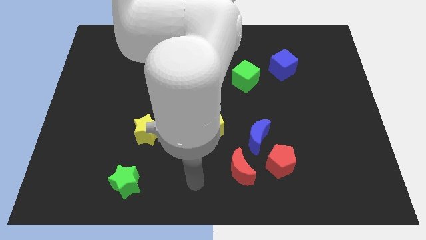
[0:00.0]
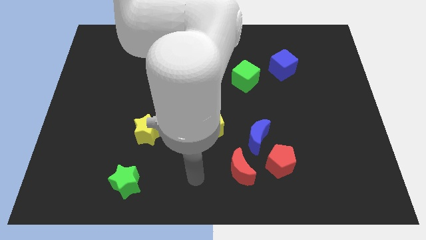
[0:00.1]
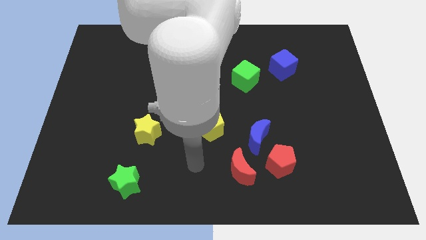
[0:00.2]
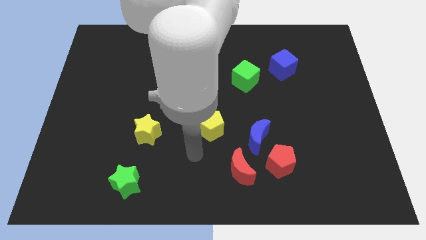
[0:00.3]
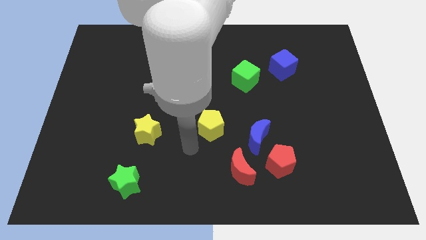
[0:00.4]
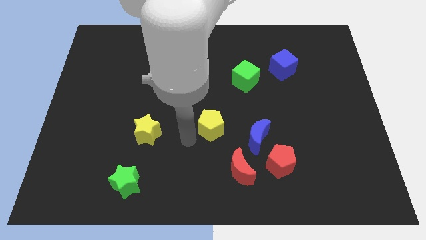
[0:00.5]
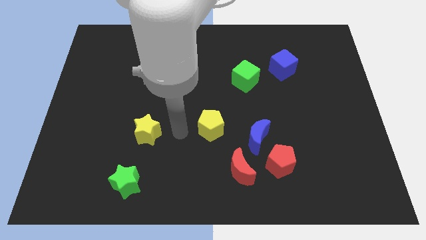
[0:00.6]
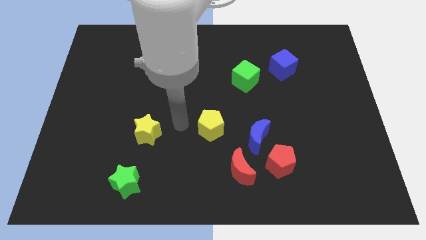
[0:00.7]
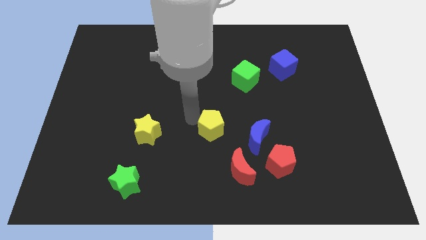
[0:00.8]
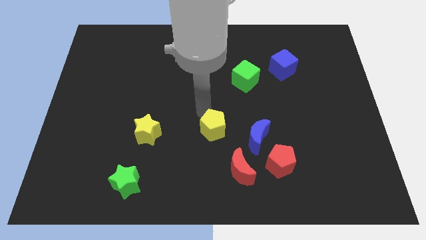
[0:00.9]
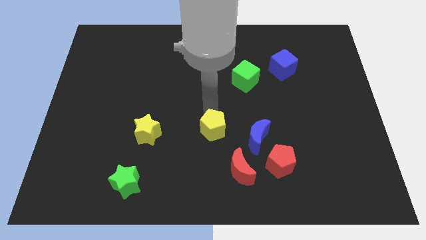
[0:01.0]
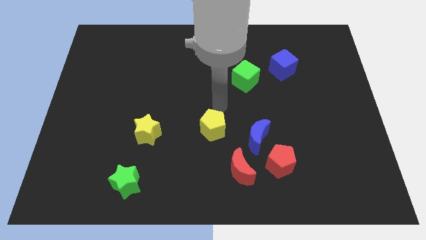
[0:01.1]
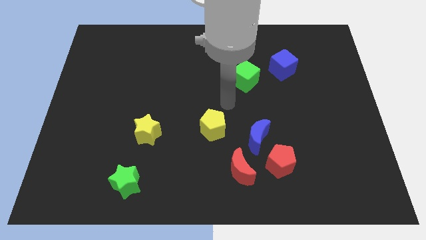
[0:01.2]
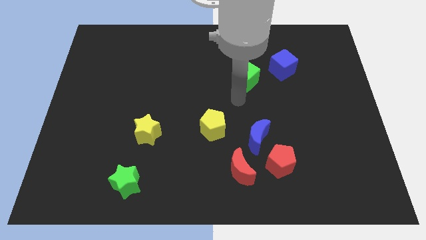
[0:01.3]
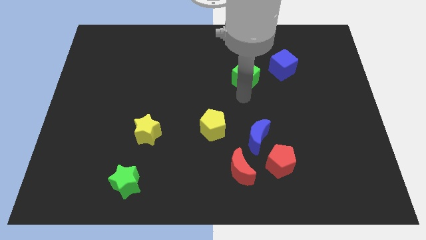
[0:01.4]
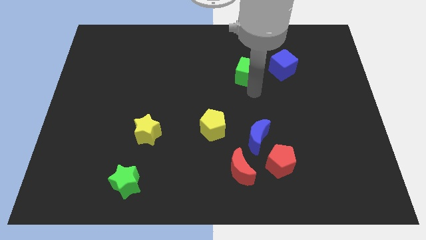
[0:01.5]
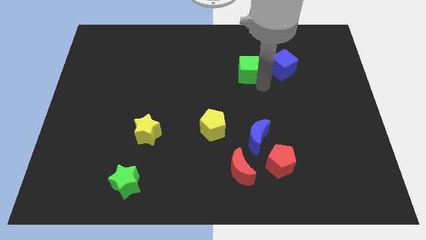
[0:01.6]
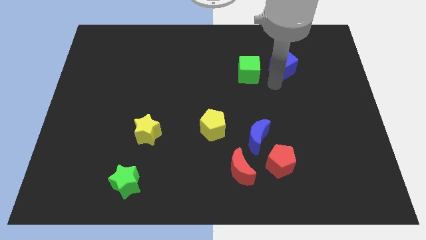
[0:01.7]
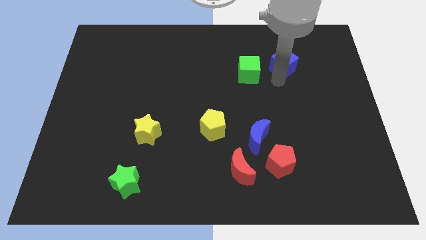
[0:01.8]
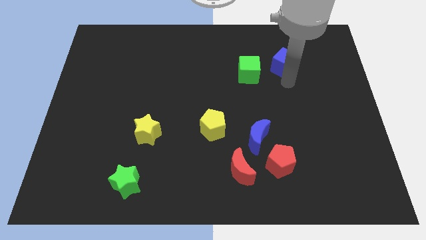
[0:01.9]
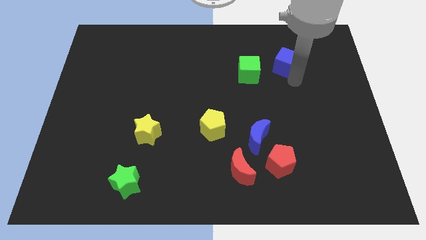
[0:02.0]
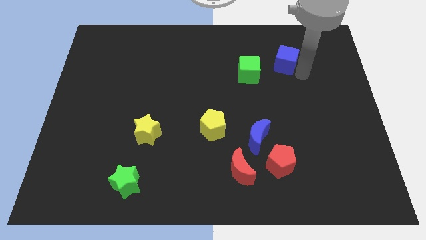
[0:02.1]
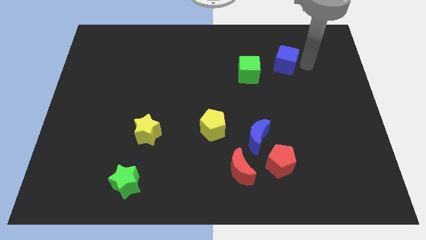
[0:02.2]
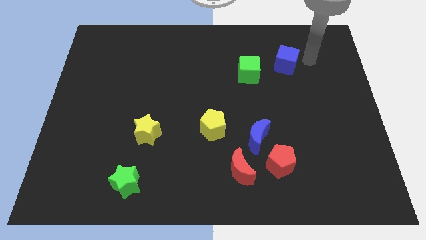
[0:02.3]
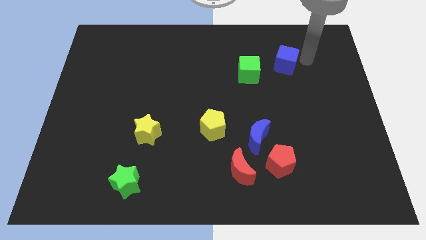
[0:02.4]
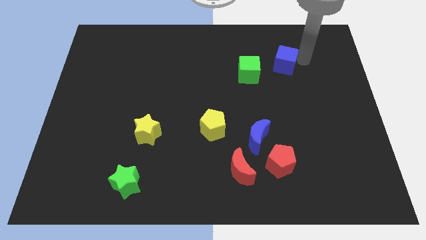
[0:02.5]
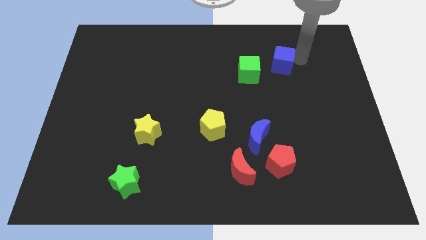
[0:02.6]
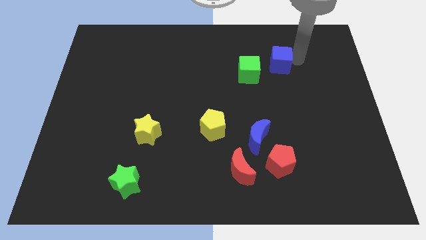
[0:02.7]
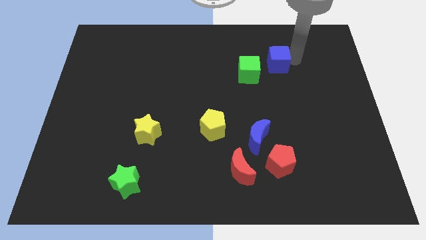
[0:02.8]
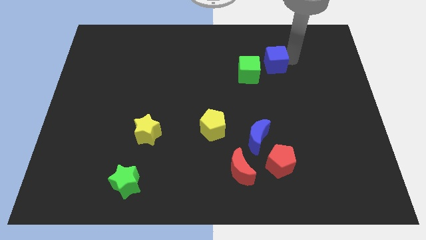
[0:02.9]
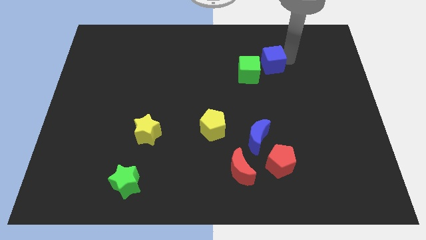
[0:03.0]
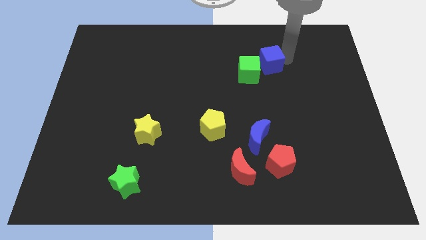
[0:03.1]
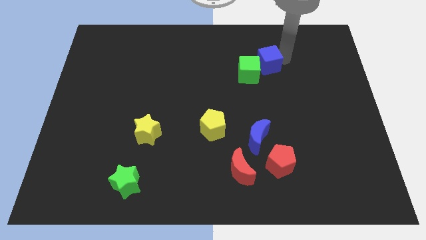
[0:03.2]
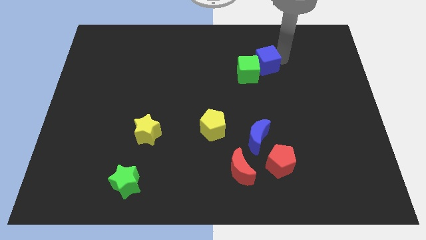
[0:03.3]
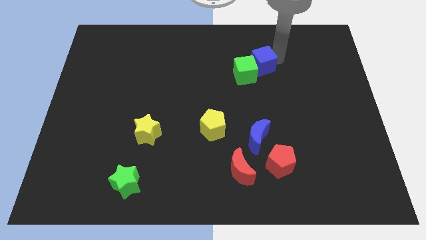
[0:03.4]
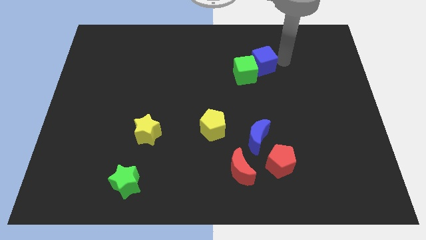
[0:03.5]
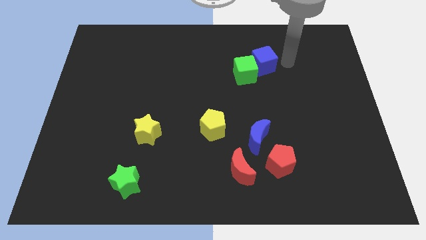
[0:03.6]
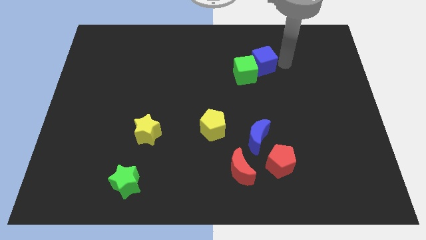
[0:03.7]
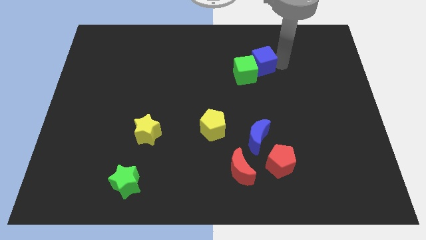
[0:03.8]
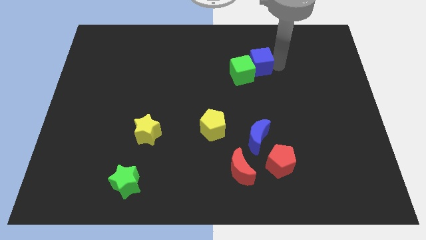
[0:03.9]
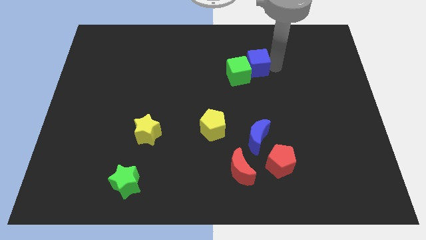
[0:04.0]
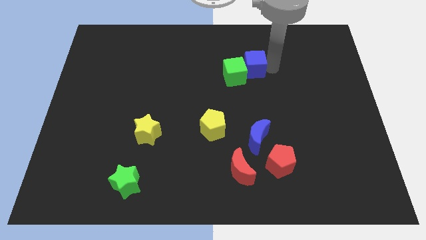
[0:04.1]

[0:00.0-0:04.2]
move the blue cube to the left a little bit

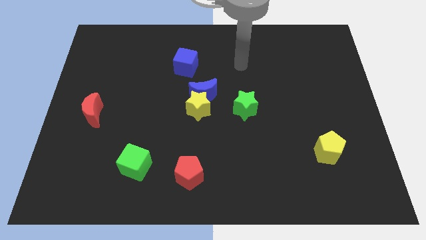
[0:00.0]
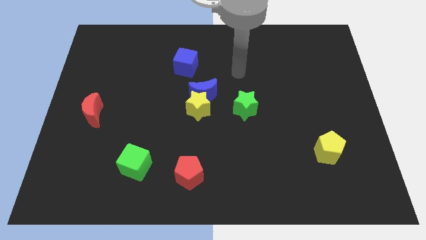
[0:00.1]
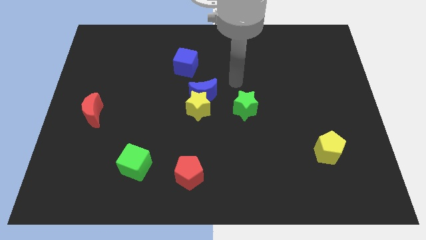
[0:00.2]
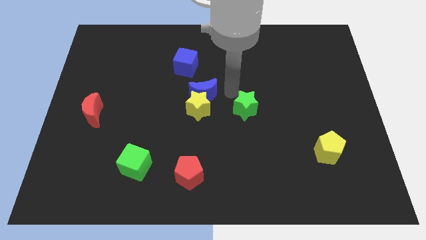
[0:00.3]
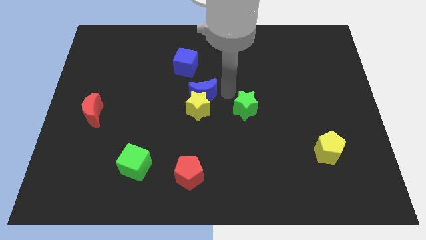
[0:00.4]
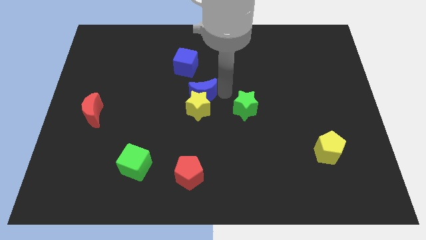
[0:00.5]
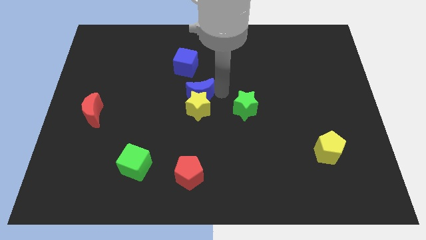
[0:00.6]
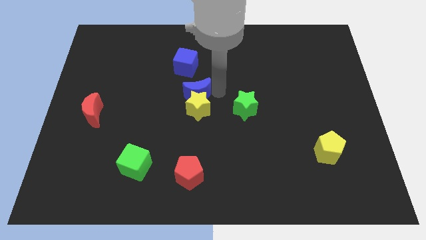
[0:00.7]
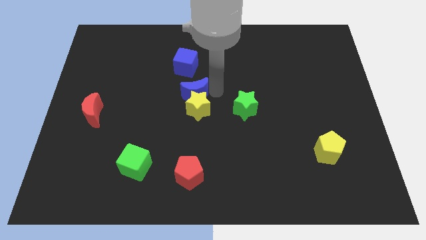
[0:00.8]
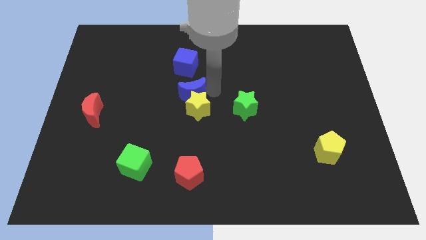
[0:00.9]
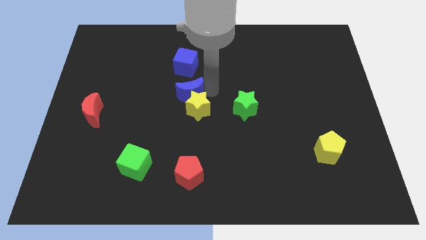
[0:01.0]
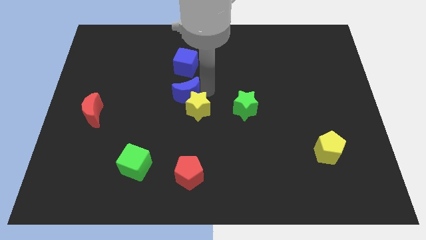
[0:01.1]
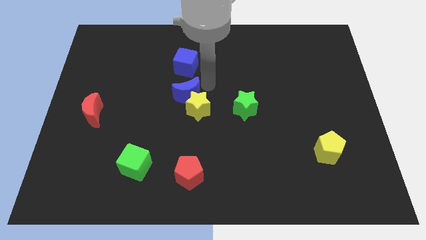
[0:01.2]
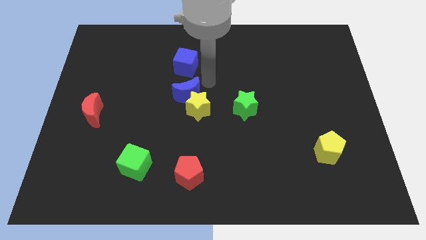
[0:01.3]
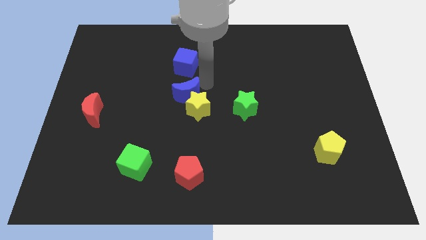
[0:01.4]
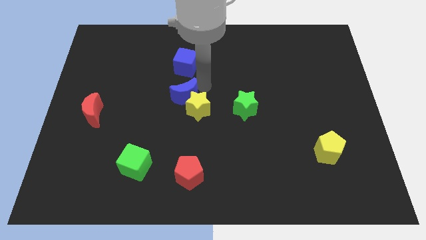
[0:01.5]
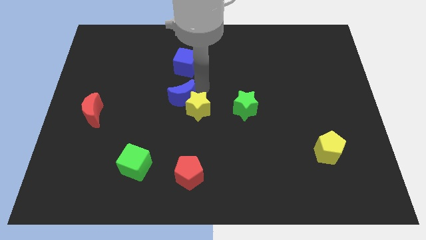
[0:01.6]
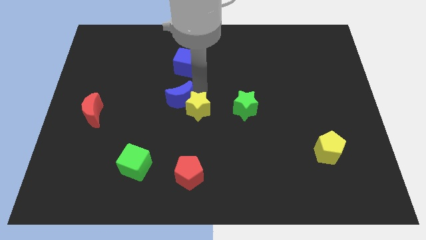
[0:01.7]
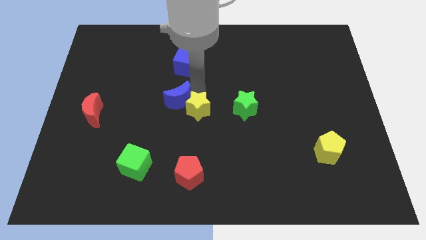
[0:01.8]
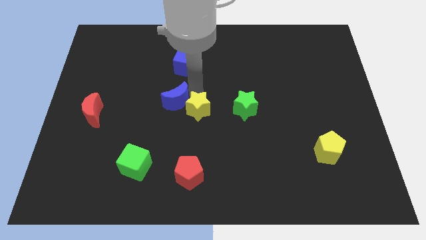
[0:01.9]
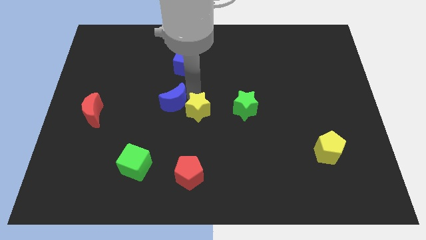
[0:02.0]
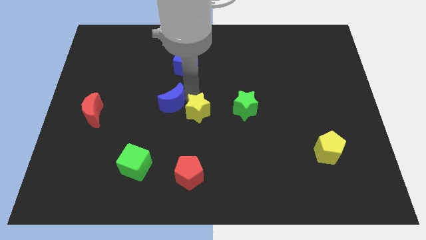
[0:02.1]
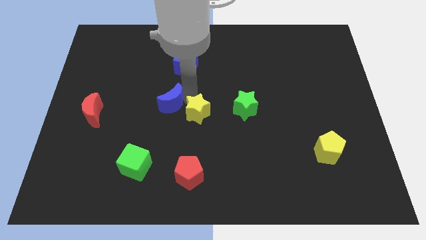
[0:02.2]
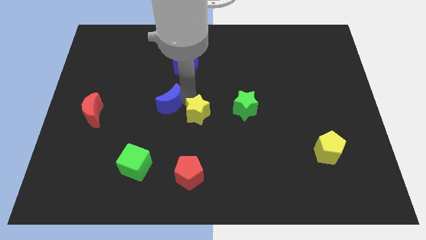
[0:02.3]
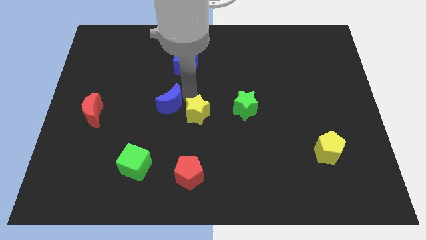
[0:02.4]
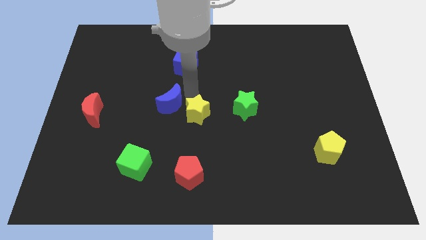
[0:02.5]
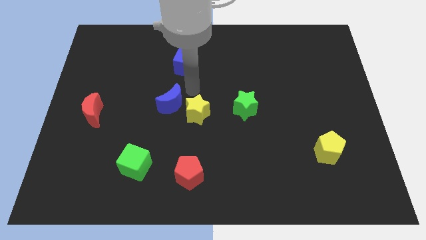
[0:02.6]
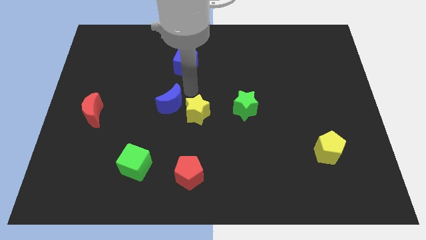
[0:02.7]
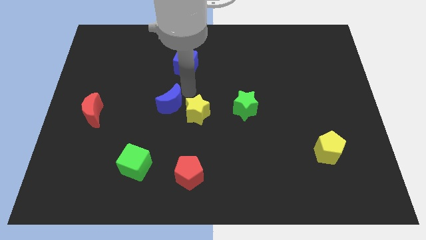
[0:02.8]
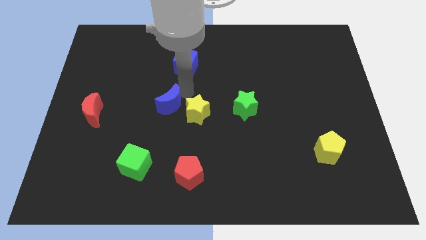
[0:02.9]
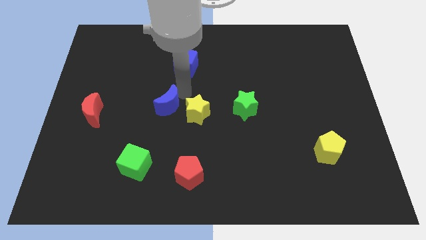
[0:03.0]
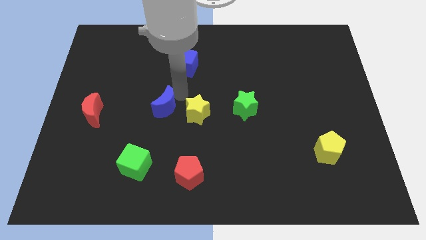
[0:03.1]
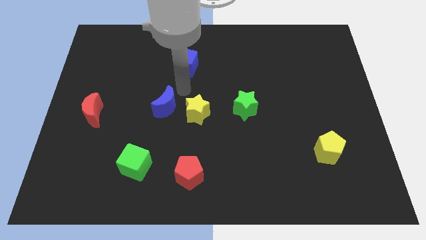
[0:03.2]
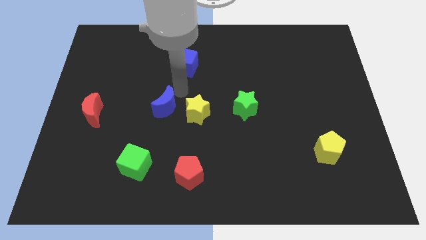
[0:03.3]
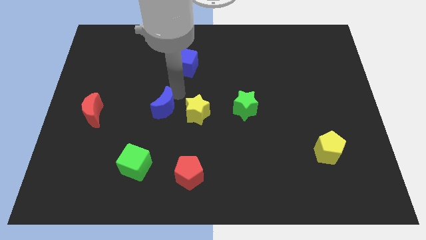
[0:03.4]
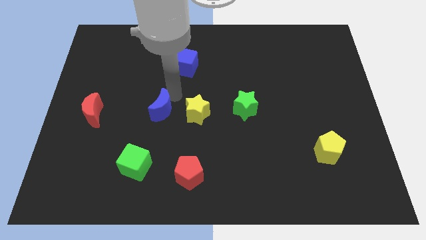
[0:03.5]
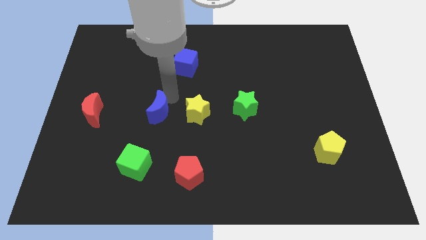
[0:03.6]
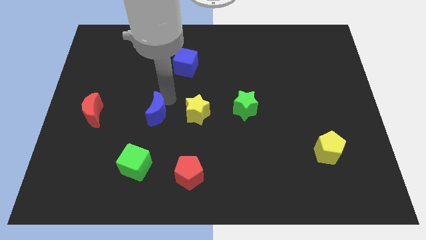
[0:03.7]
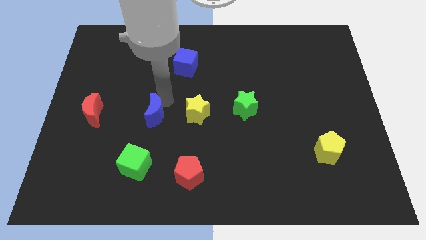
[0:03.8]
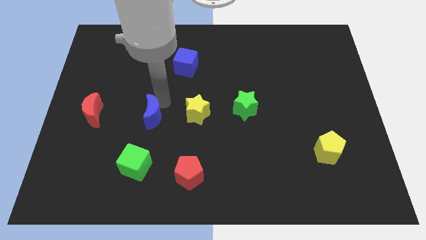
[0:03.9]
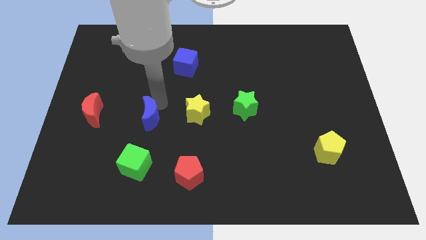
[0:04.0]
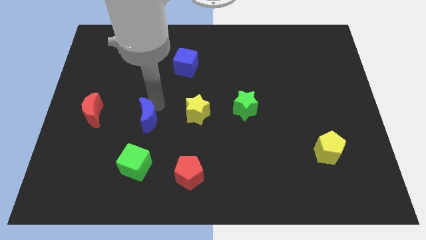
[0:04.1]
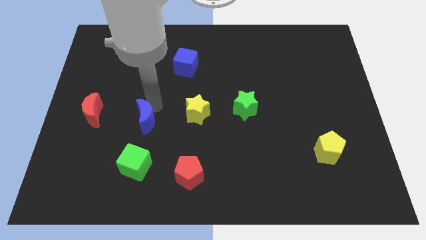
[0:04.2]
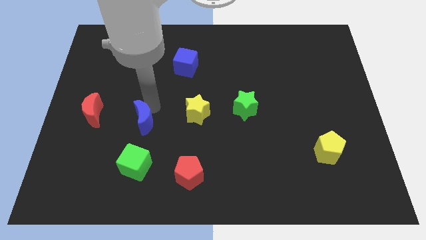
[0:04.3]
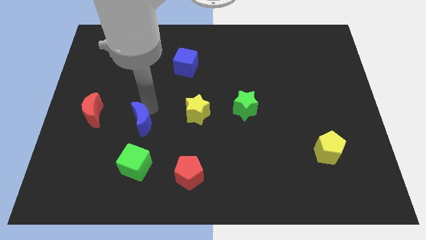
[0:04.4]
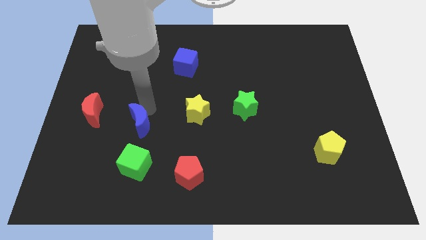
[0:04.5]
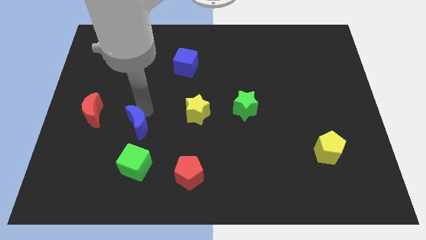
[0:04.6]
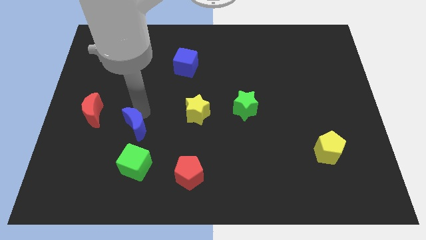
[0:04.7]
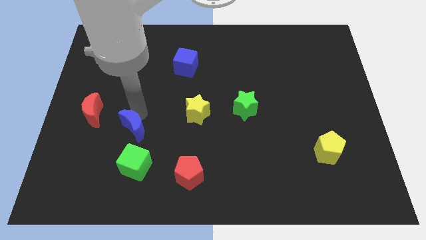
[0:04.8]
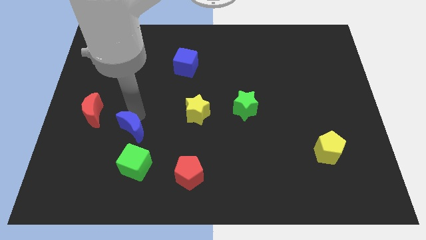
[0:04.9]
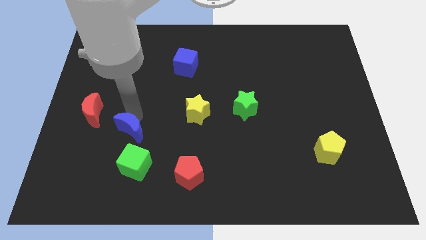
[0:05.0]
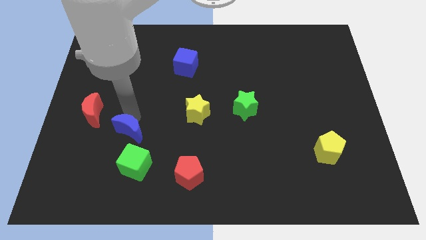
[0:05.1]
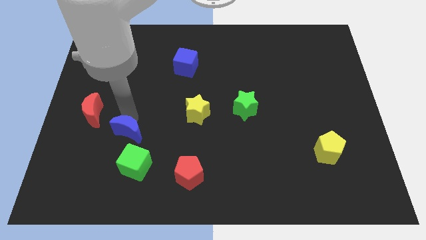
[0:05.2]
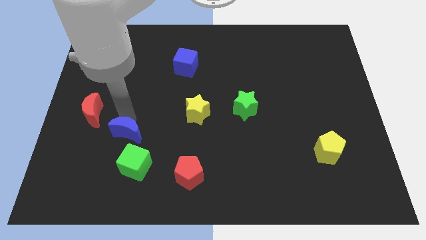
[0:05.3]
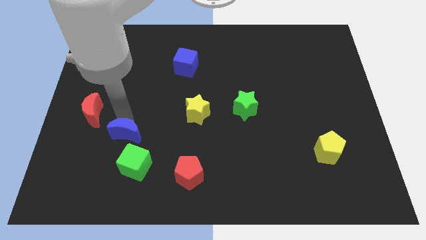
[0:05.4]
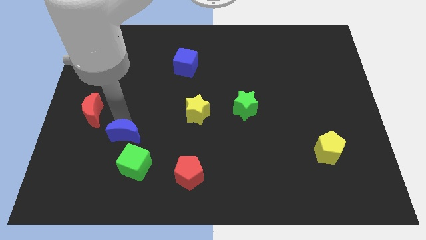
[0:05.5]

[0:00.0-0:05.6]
slide the blue moon down and to the left diagonally
